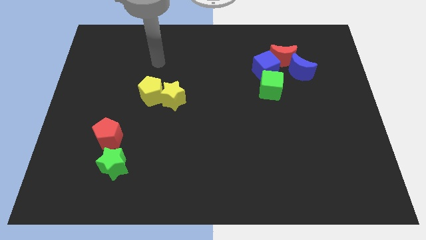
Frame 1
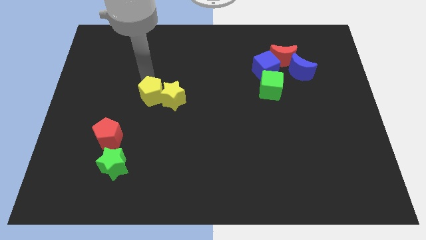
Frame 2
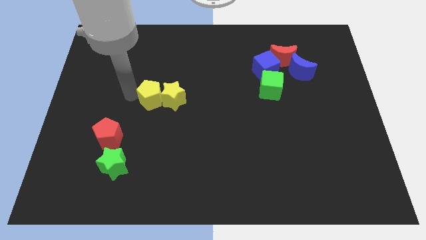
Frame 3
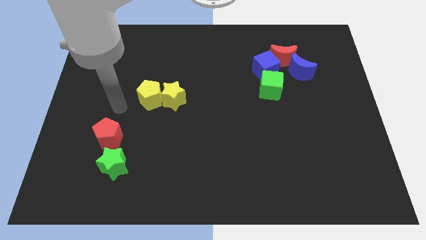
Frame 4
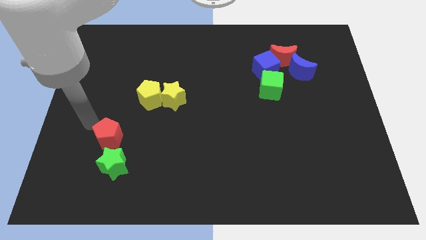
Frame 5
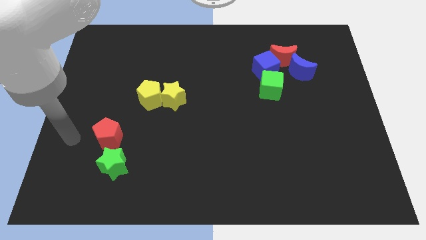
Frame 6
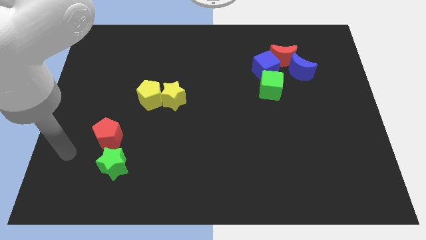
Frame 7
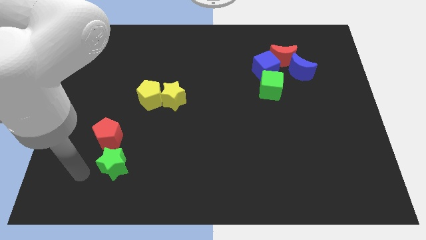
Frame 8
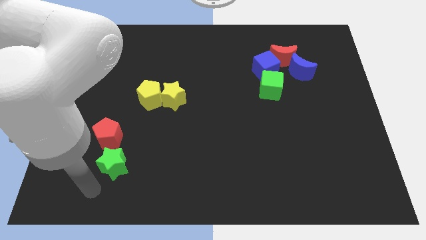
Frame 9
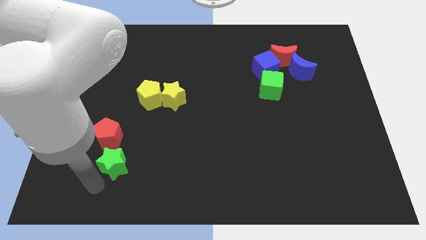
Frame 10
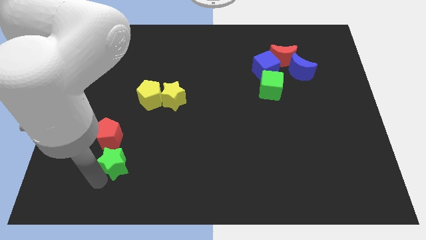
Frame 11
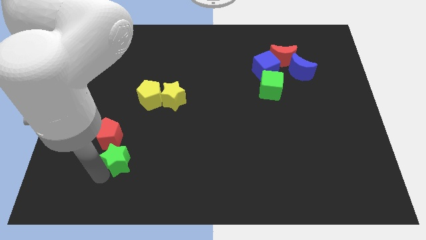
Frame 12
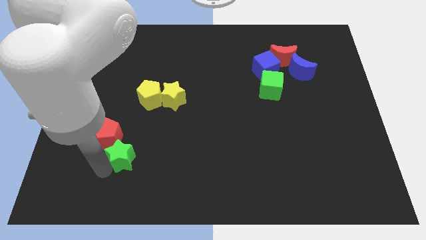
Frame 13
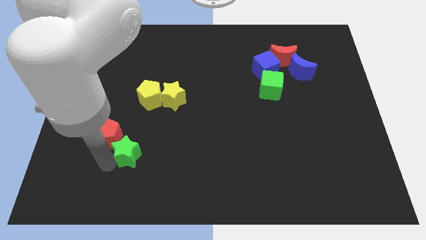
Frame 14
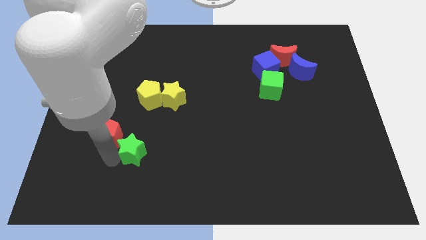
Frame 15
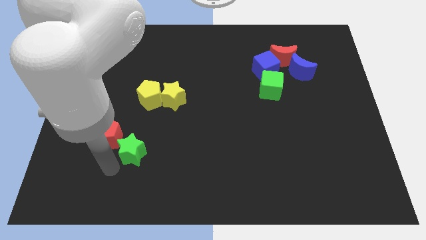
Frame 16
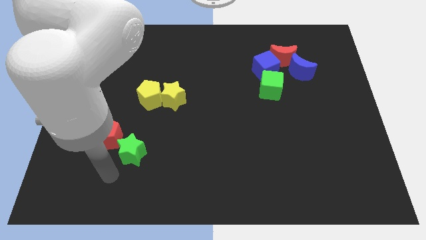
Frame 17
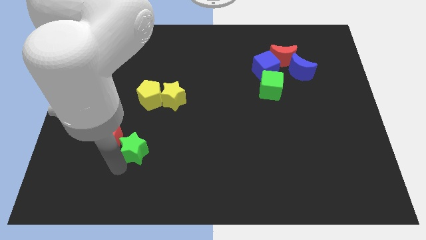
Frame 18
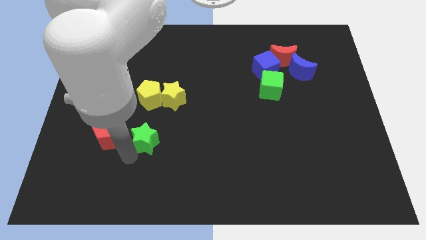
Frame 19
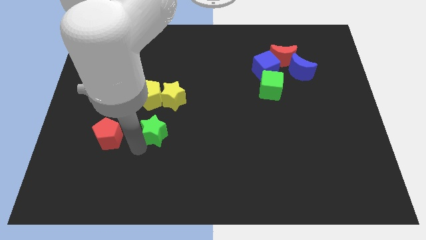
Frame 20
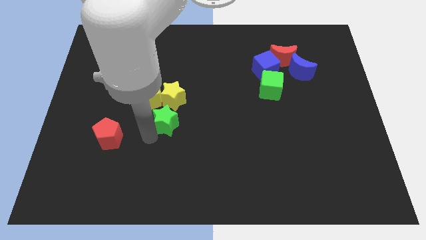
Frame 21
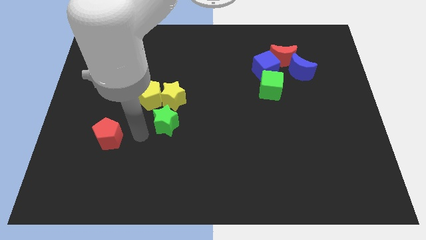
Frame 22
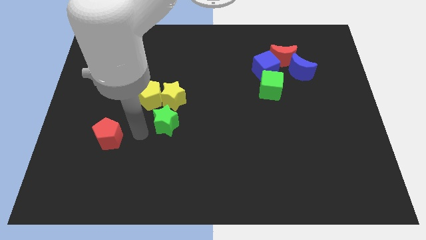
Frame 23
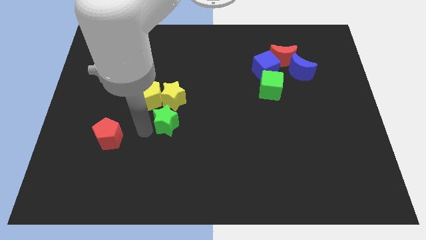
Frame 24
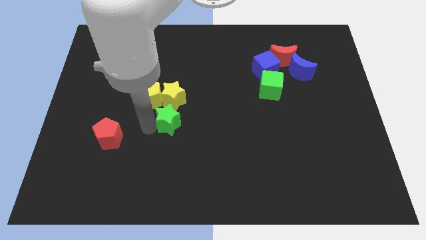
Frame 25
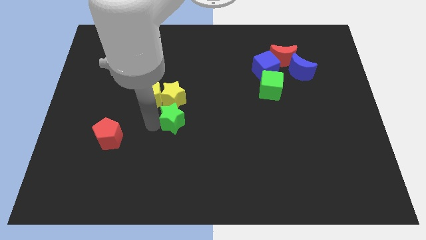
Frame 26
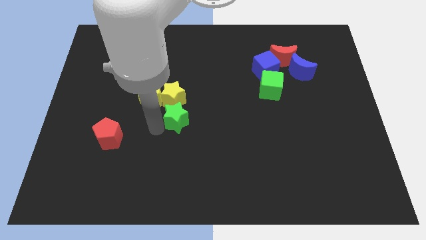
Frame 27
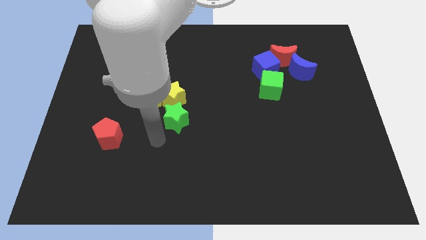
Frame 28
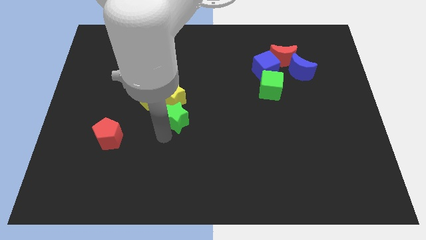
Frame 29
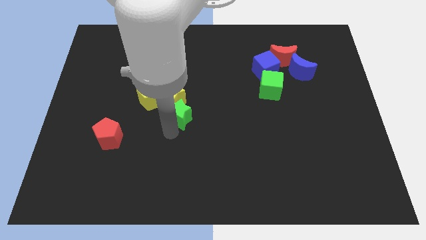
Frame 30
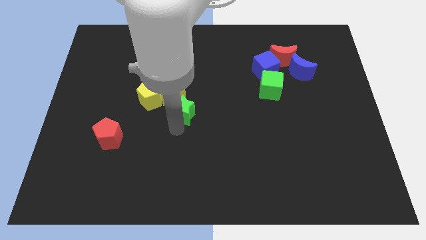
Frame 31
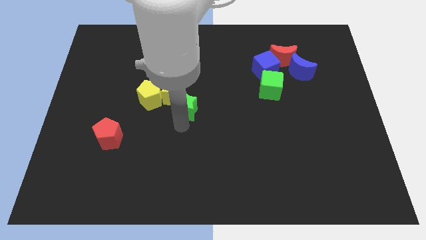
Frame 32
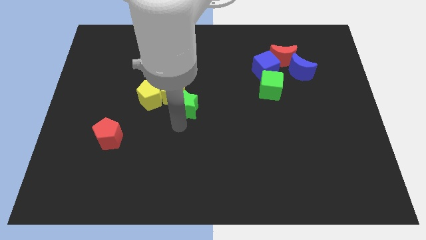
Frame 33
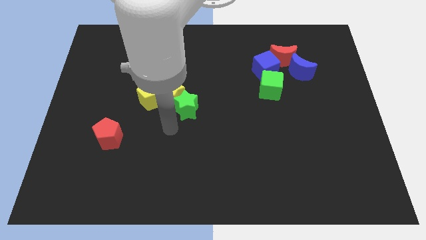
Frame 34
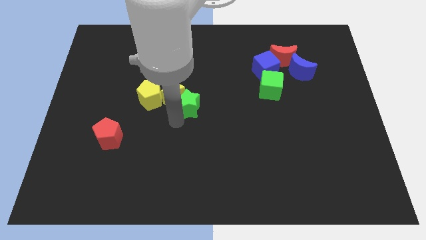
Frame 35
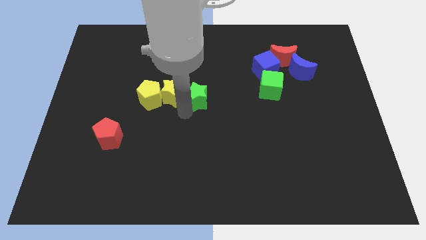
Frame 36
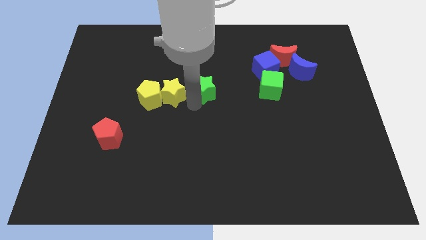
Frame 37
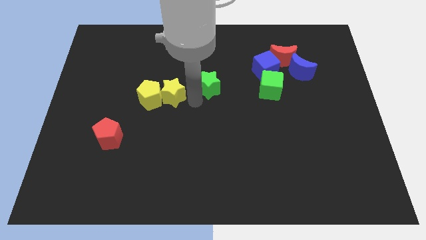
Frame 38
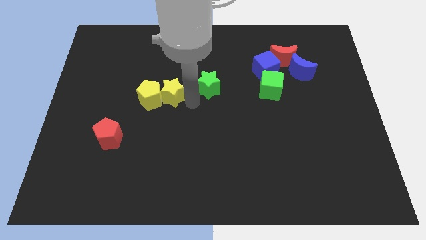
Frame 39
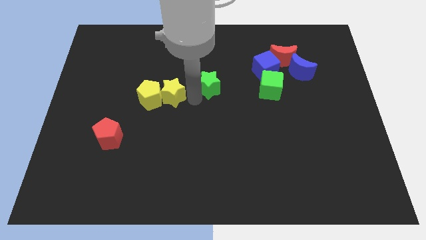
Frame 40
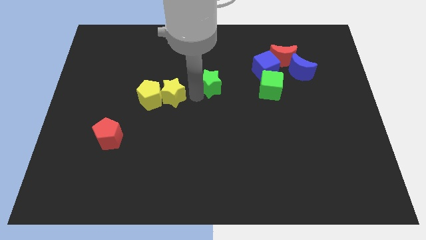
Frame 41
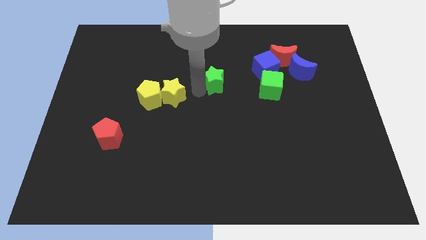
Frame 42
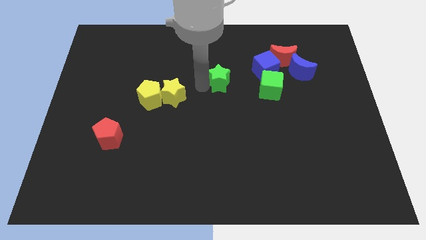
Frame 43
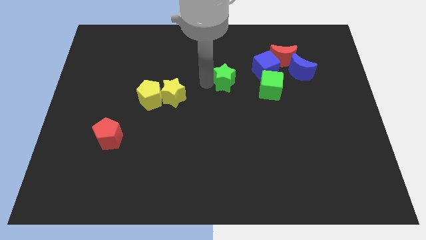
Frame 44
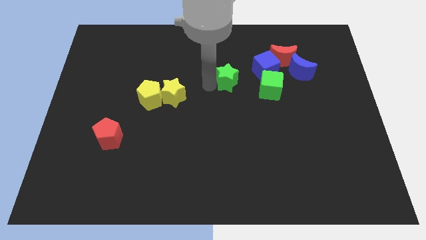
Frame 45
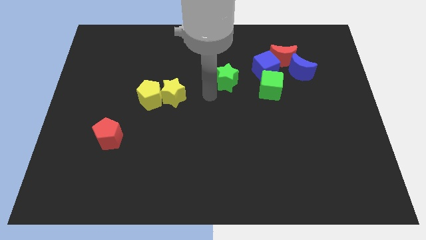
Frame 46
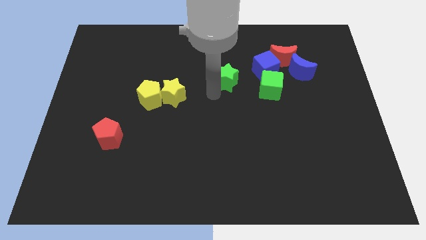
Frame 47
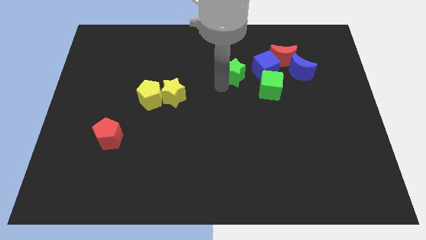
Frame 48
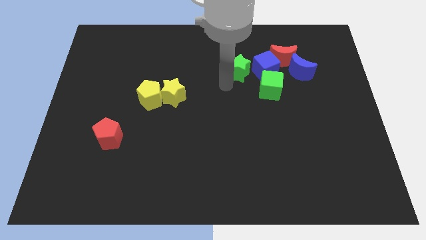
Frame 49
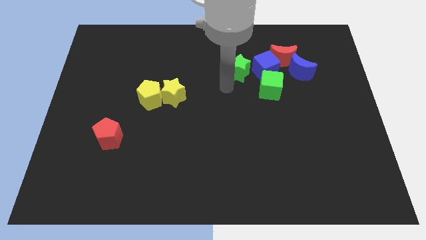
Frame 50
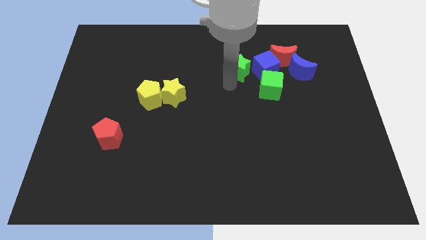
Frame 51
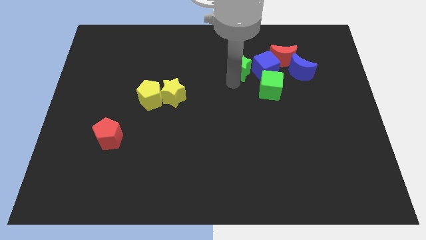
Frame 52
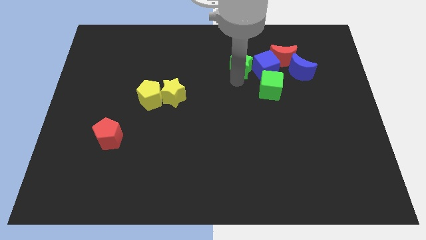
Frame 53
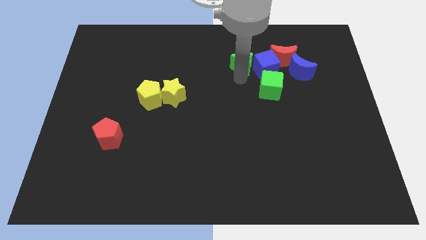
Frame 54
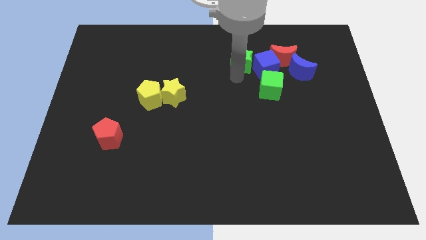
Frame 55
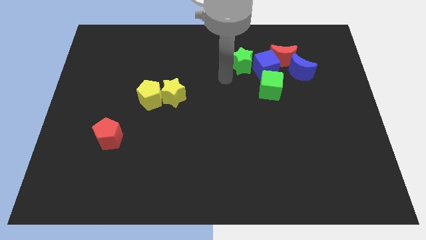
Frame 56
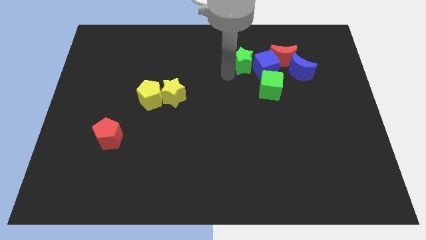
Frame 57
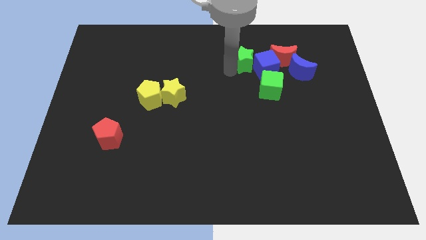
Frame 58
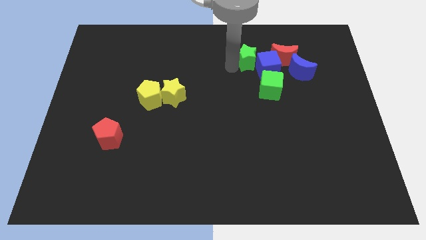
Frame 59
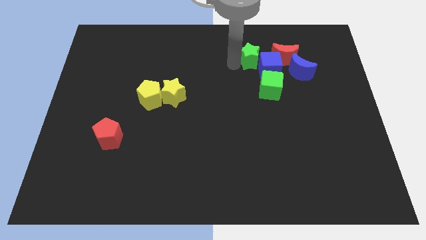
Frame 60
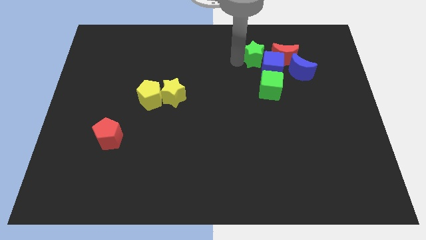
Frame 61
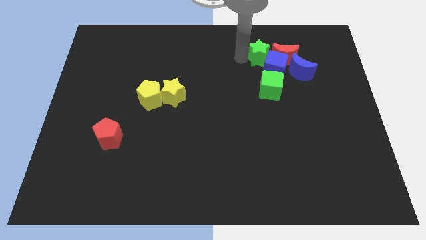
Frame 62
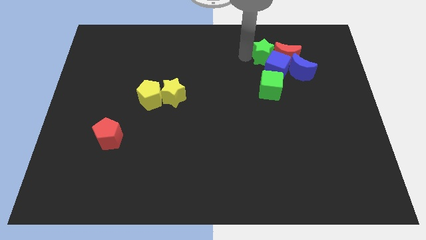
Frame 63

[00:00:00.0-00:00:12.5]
move the green star to the red moon

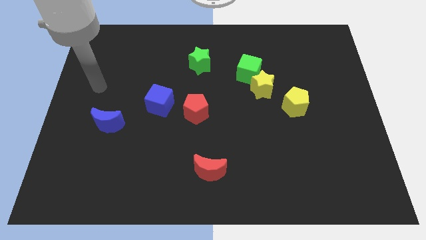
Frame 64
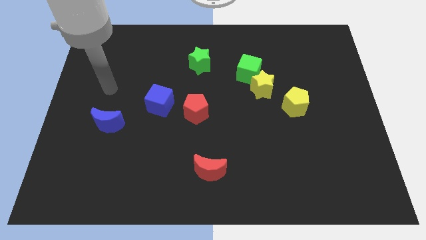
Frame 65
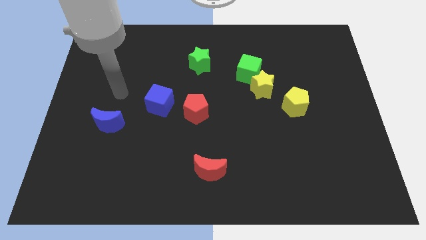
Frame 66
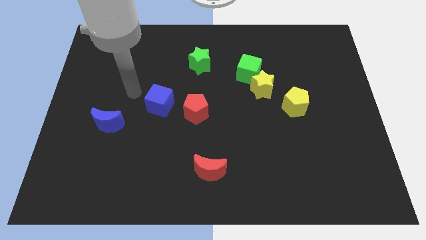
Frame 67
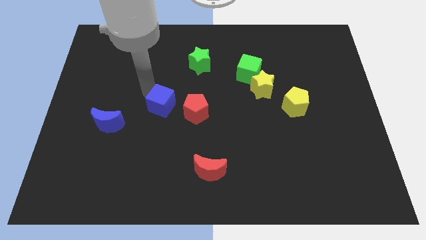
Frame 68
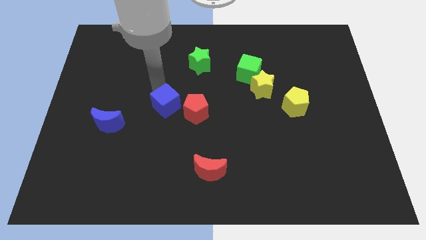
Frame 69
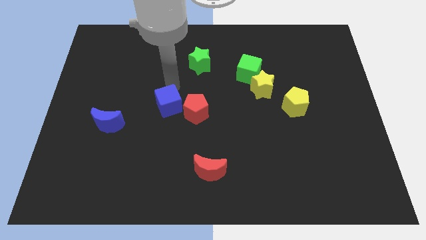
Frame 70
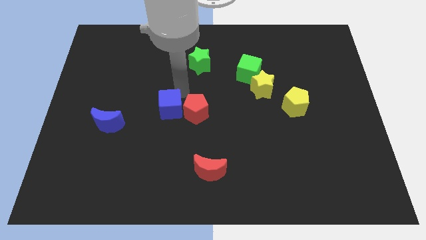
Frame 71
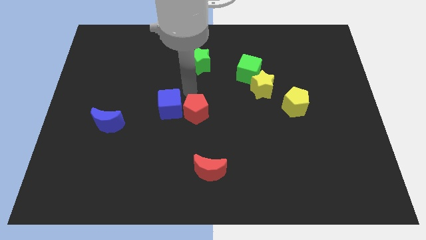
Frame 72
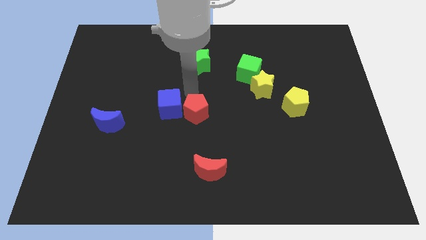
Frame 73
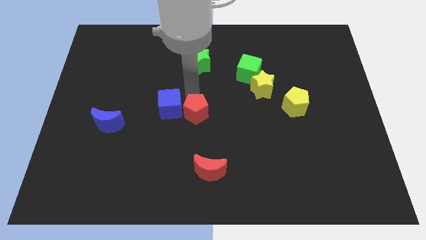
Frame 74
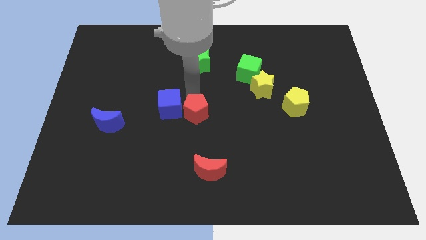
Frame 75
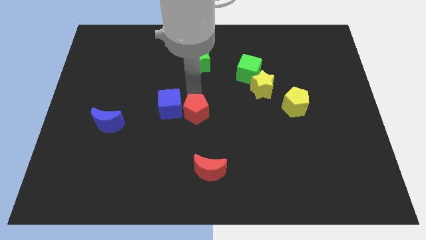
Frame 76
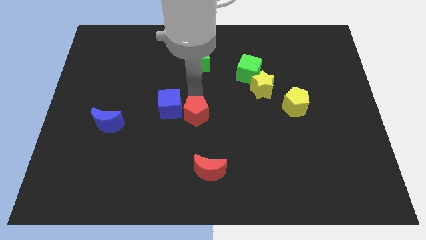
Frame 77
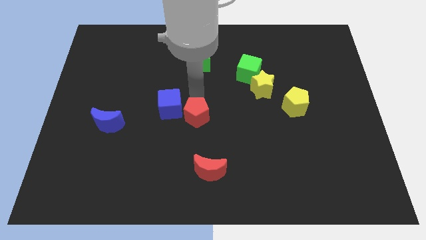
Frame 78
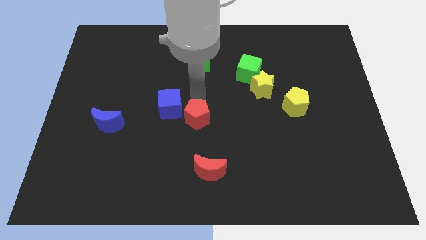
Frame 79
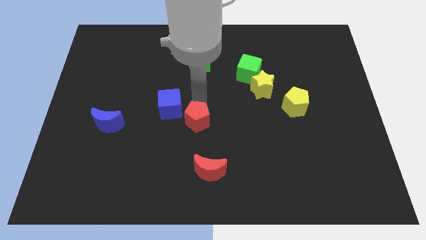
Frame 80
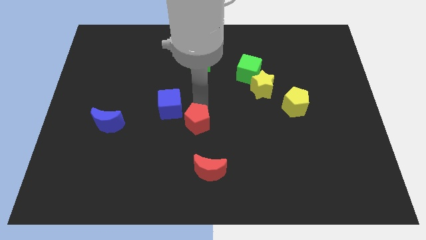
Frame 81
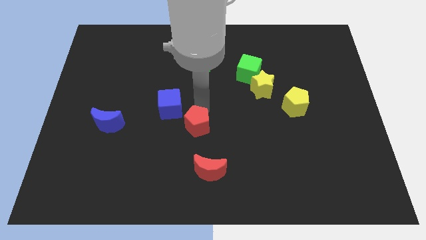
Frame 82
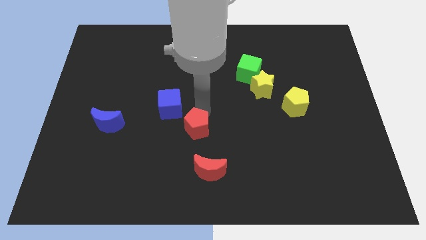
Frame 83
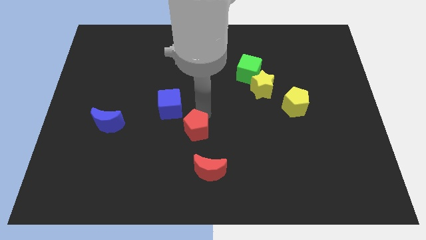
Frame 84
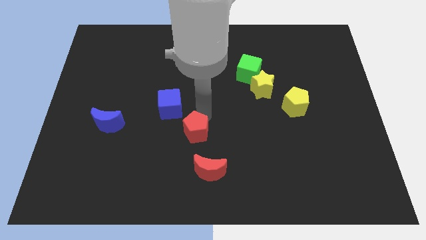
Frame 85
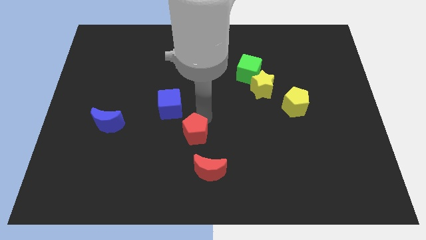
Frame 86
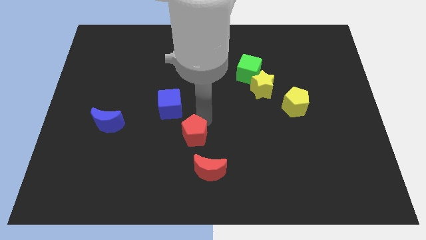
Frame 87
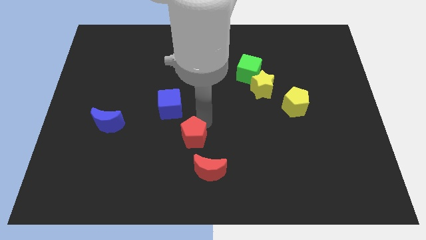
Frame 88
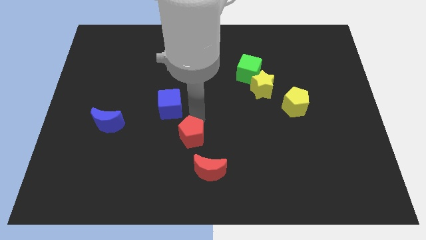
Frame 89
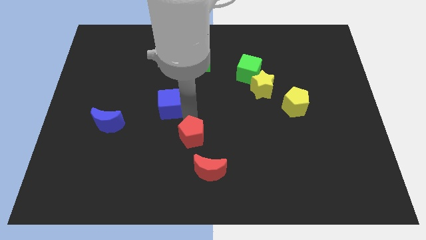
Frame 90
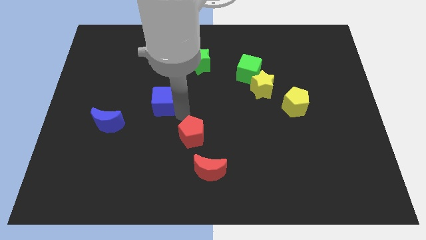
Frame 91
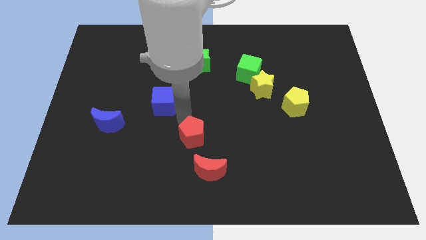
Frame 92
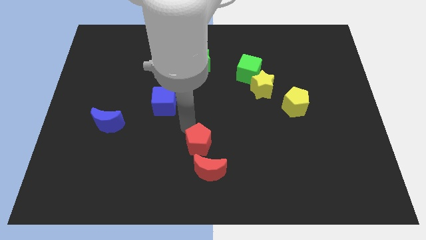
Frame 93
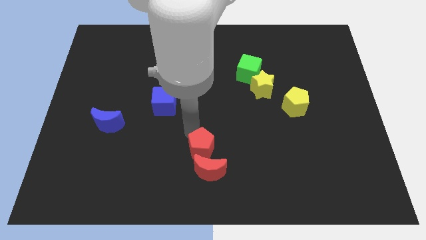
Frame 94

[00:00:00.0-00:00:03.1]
move the red pentagon close to the red moon
